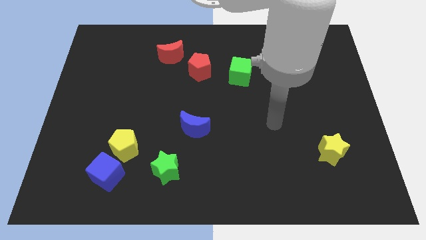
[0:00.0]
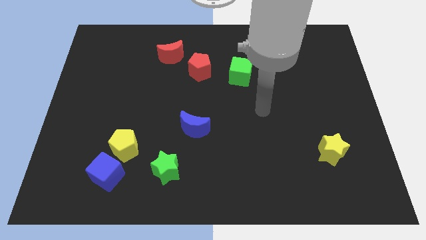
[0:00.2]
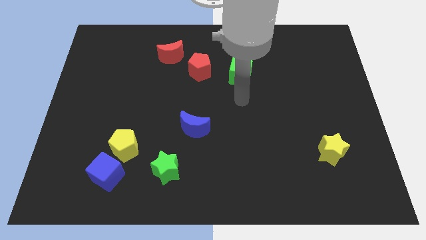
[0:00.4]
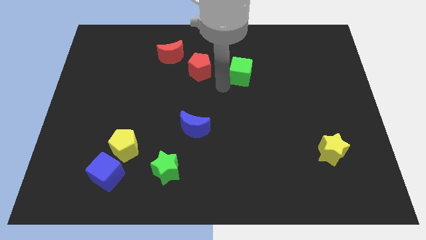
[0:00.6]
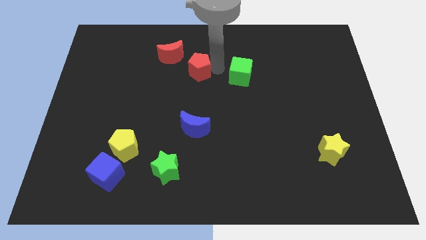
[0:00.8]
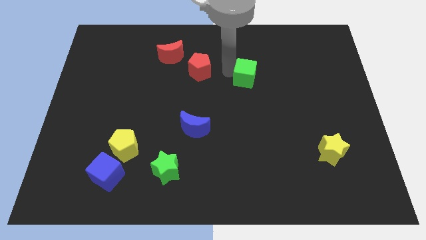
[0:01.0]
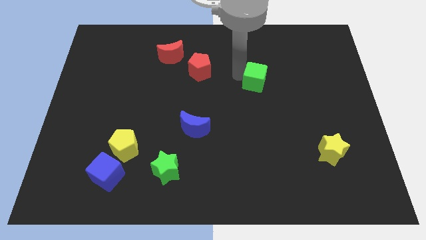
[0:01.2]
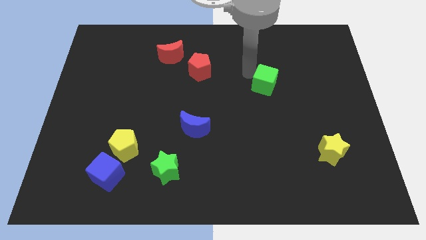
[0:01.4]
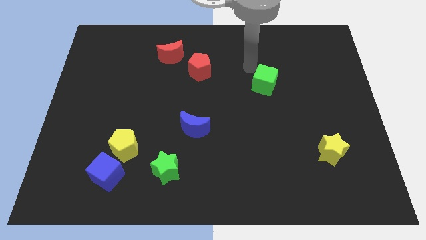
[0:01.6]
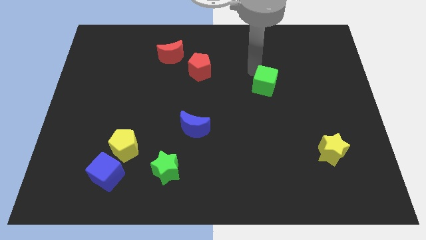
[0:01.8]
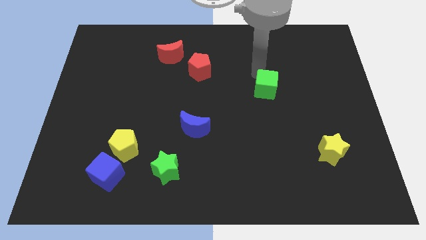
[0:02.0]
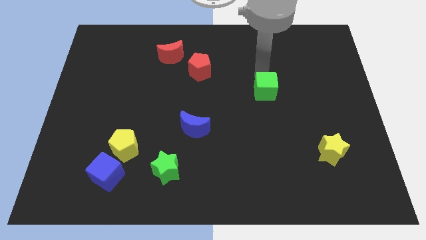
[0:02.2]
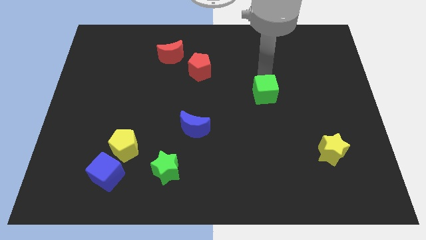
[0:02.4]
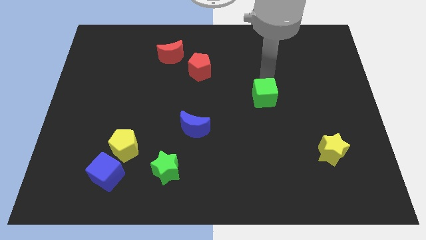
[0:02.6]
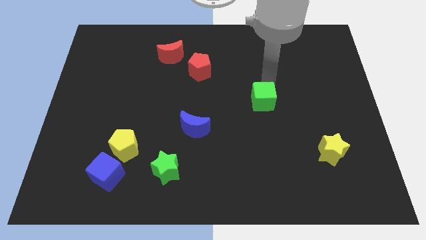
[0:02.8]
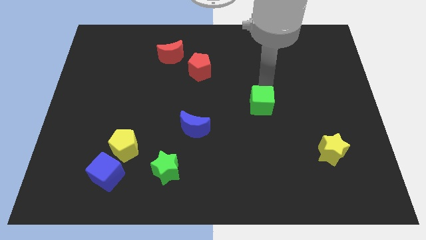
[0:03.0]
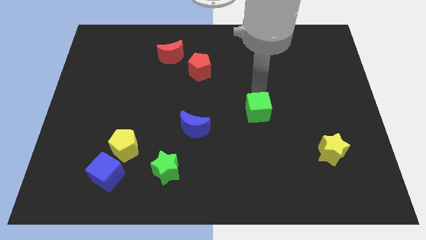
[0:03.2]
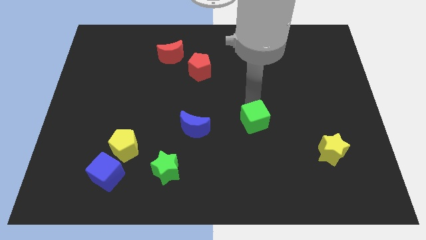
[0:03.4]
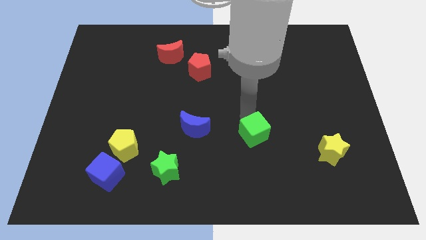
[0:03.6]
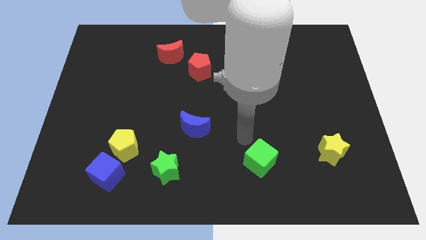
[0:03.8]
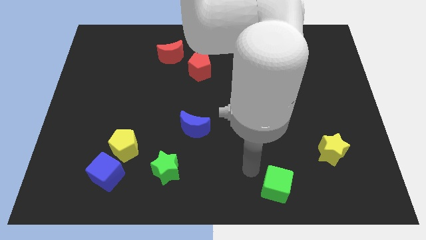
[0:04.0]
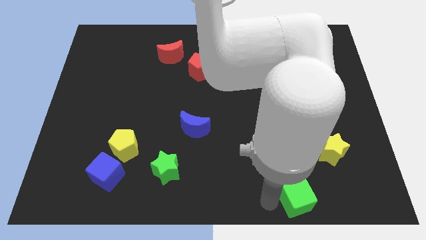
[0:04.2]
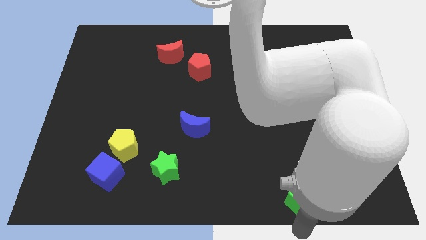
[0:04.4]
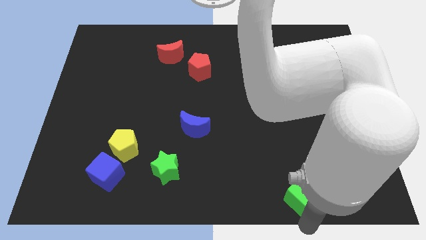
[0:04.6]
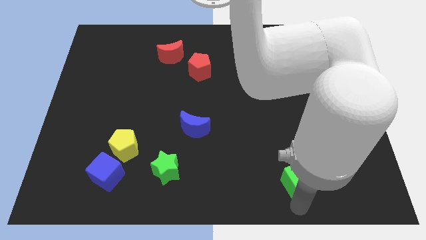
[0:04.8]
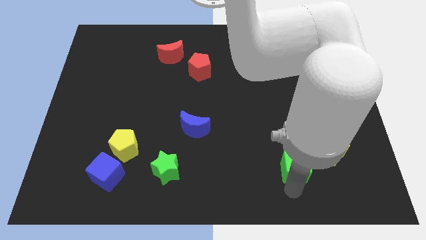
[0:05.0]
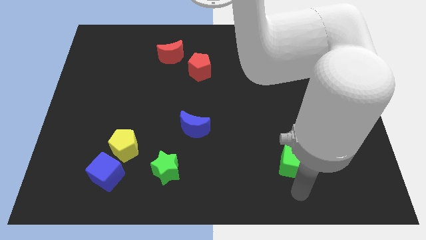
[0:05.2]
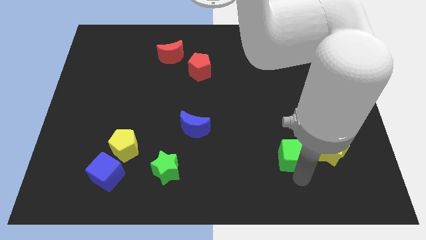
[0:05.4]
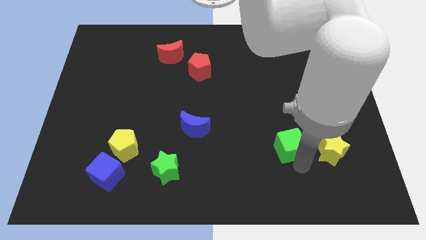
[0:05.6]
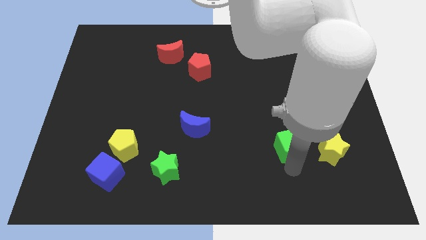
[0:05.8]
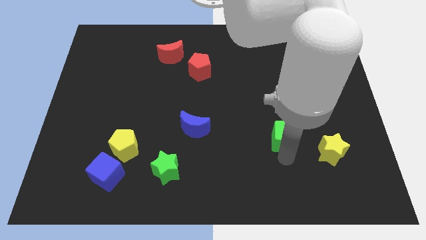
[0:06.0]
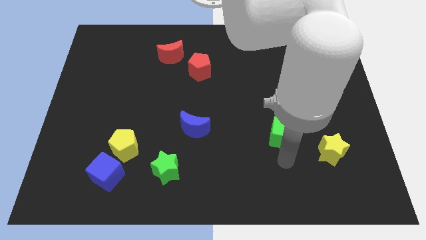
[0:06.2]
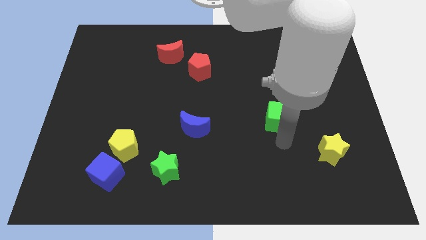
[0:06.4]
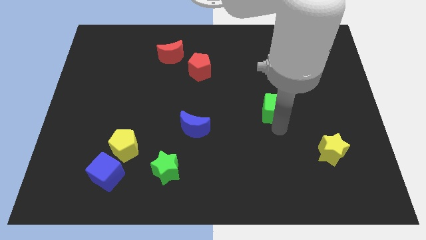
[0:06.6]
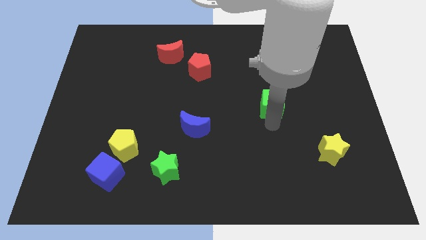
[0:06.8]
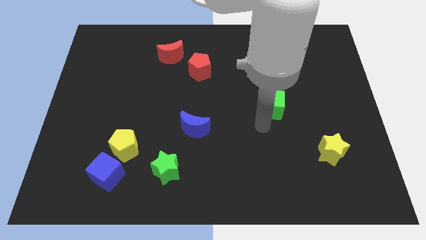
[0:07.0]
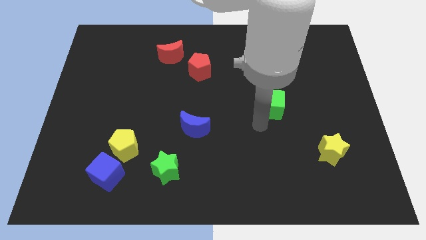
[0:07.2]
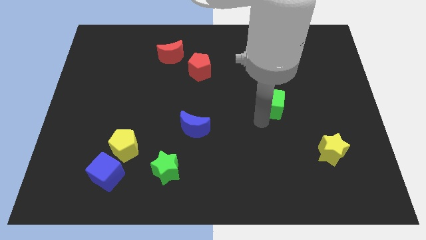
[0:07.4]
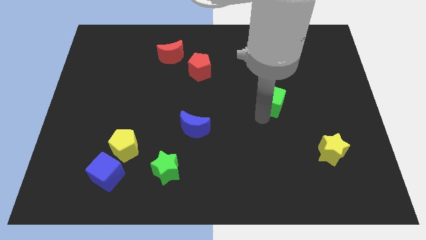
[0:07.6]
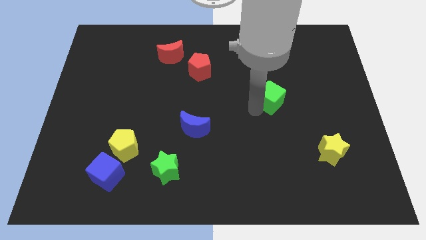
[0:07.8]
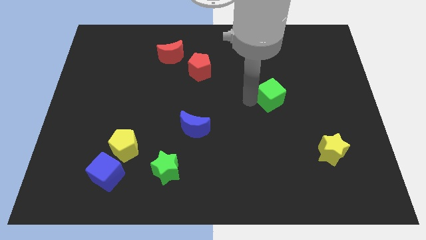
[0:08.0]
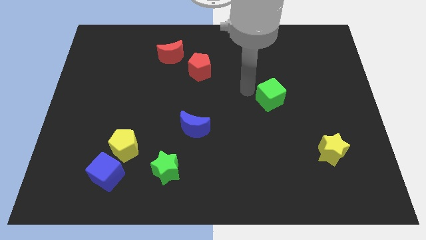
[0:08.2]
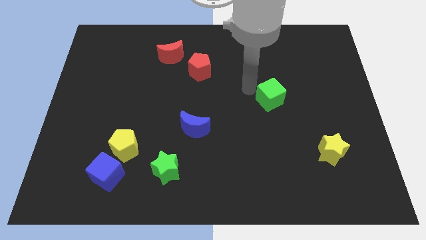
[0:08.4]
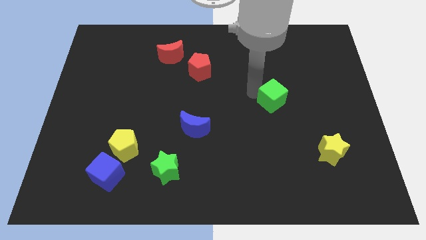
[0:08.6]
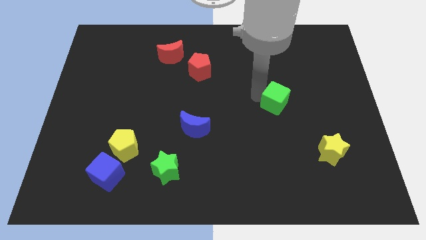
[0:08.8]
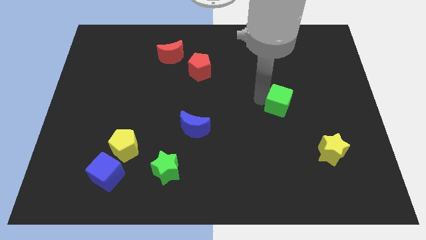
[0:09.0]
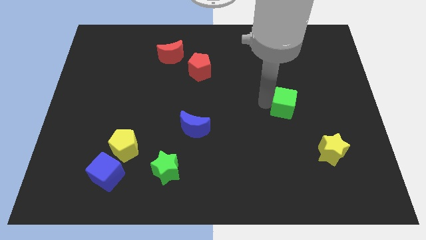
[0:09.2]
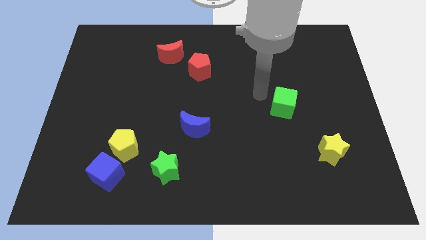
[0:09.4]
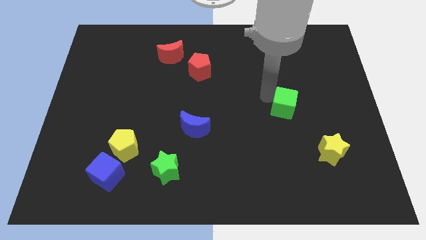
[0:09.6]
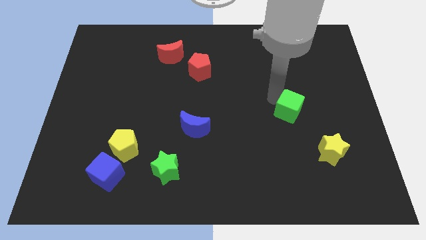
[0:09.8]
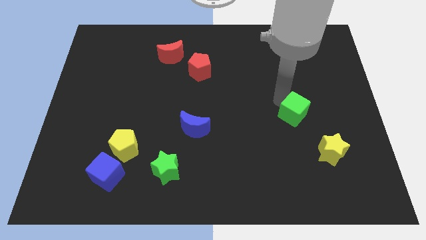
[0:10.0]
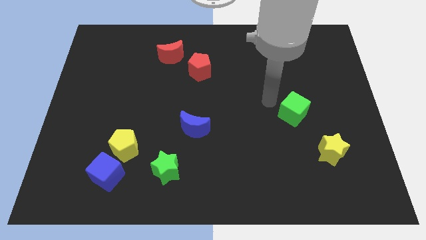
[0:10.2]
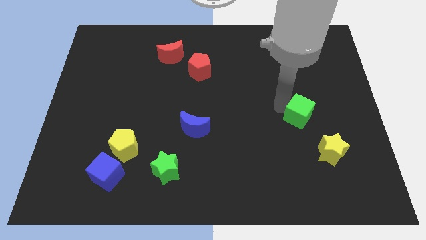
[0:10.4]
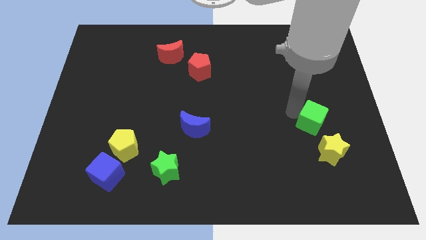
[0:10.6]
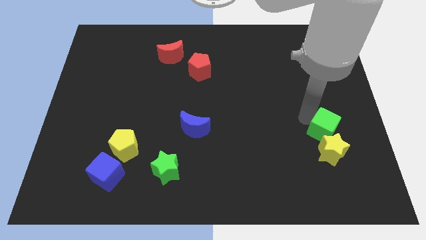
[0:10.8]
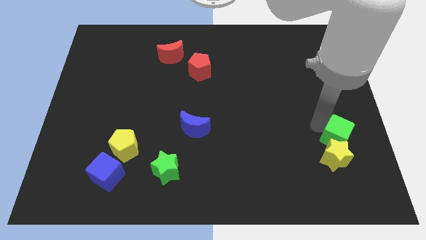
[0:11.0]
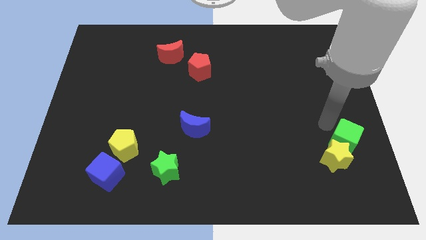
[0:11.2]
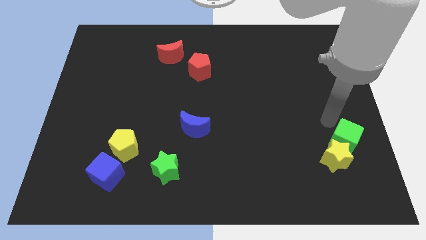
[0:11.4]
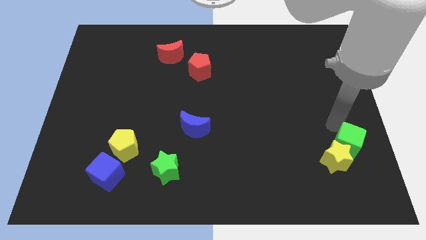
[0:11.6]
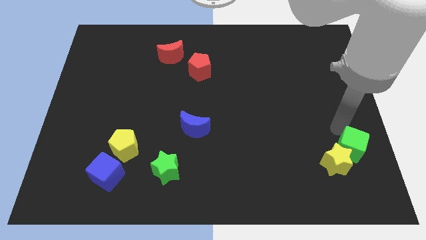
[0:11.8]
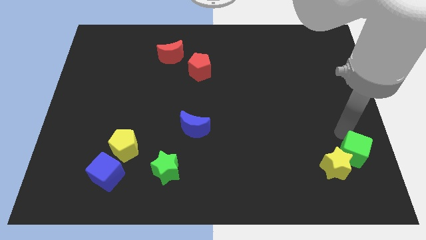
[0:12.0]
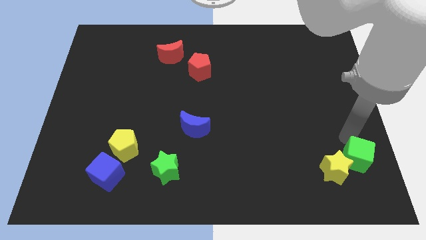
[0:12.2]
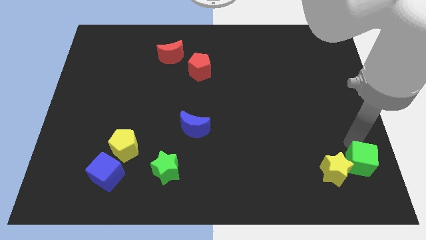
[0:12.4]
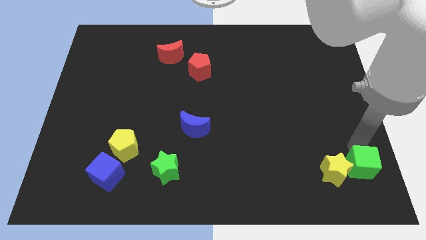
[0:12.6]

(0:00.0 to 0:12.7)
put the green cube to the bottom right of the board
